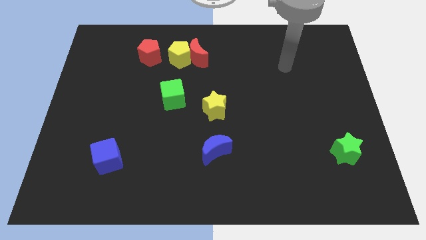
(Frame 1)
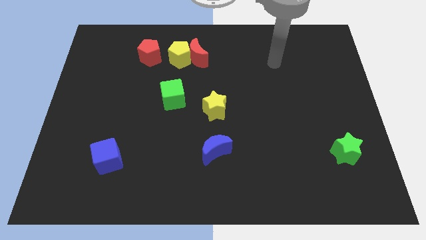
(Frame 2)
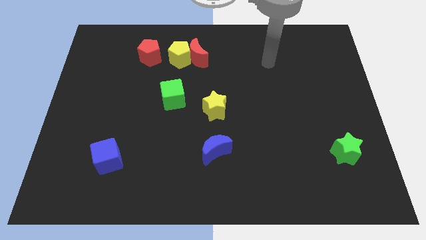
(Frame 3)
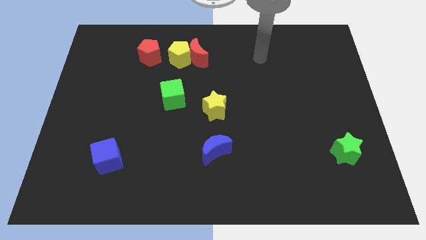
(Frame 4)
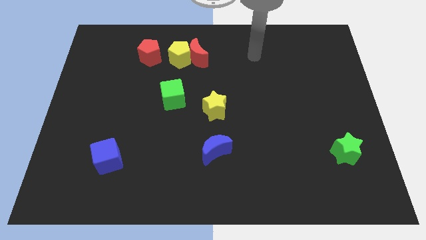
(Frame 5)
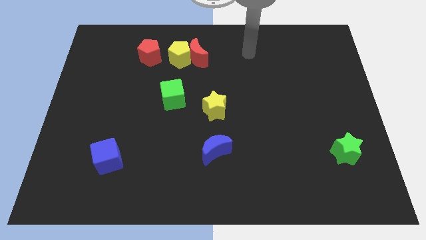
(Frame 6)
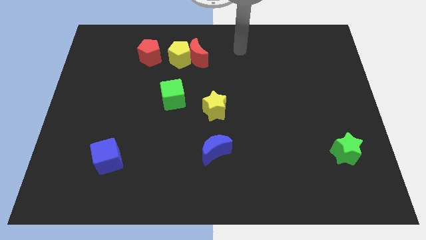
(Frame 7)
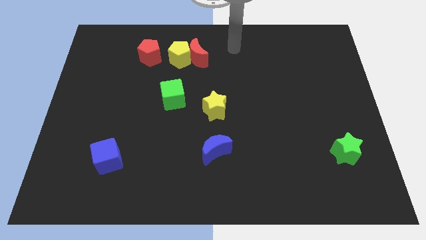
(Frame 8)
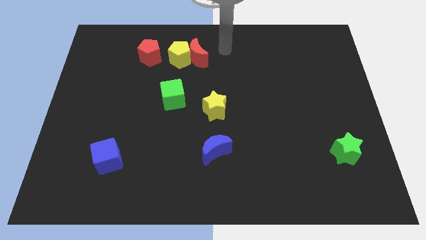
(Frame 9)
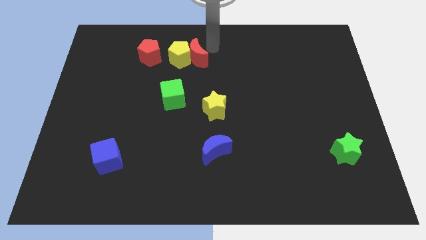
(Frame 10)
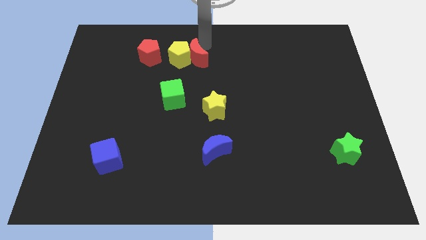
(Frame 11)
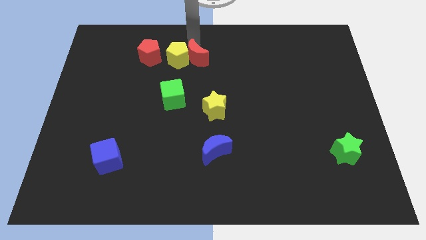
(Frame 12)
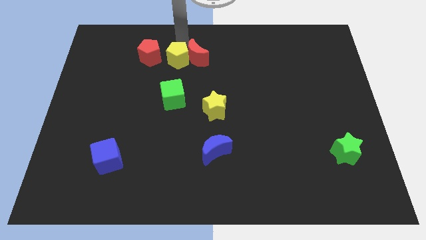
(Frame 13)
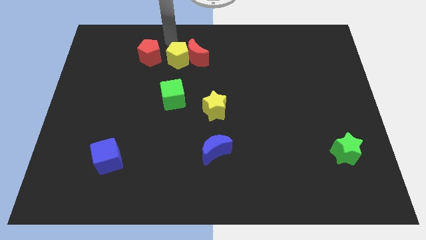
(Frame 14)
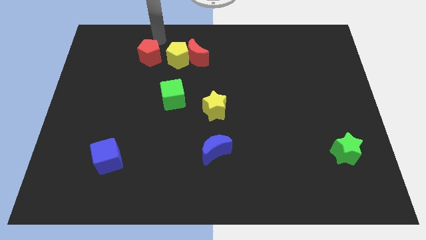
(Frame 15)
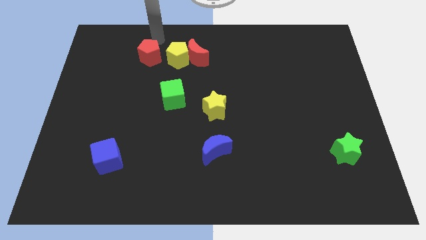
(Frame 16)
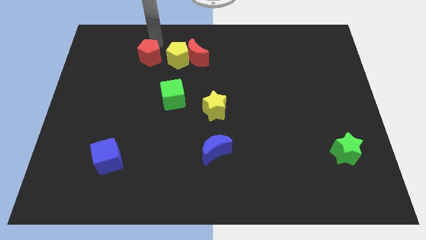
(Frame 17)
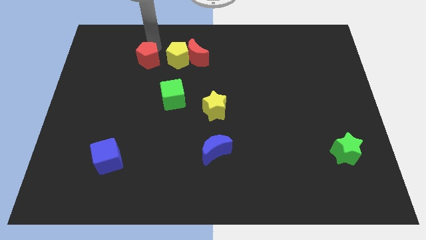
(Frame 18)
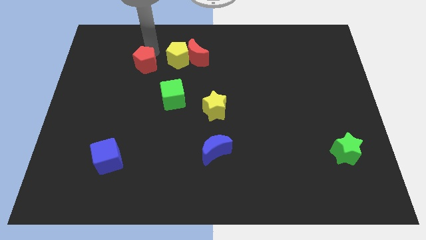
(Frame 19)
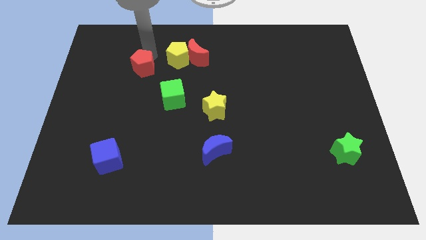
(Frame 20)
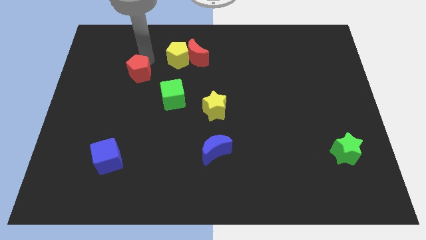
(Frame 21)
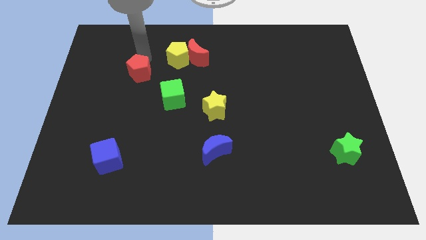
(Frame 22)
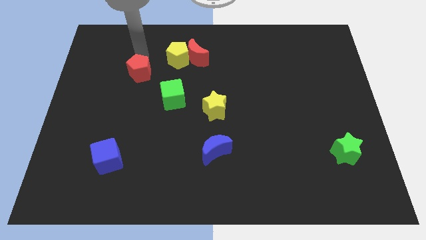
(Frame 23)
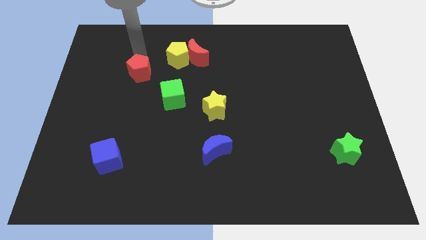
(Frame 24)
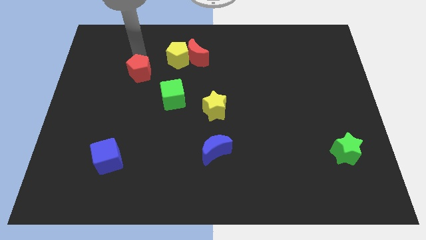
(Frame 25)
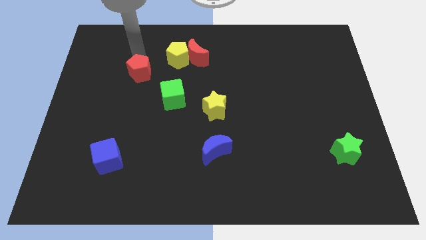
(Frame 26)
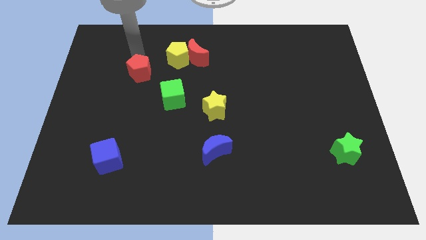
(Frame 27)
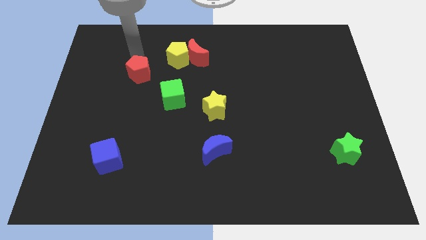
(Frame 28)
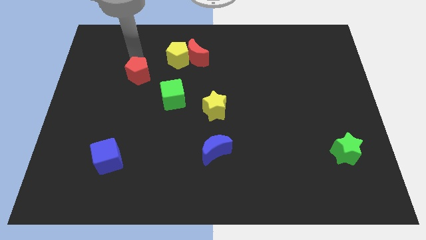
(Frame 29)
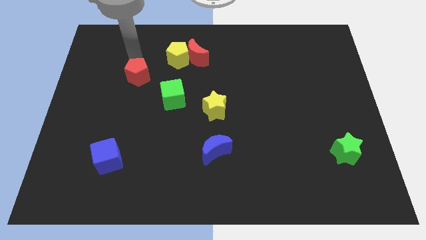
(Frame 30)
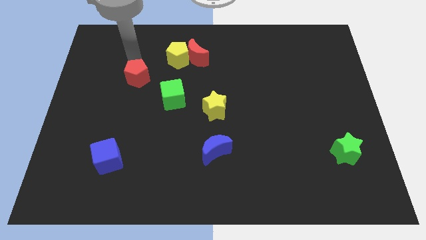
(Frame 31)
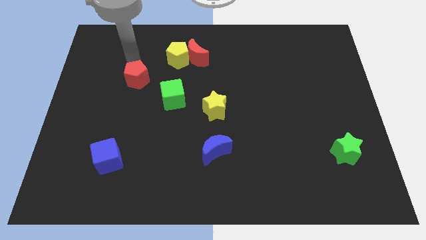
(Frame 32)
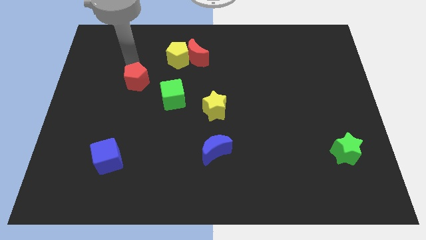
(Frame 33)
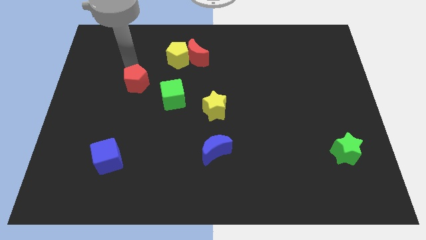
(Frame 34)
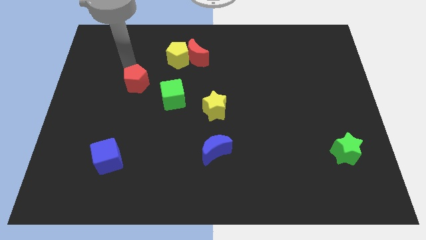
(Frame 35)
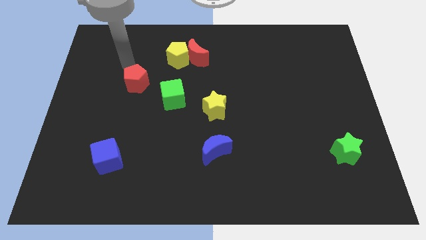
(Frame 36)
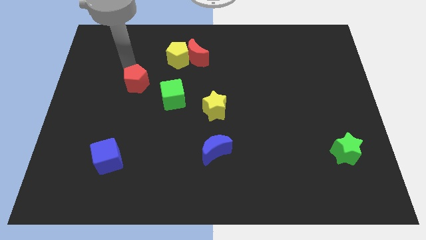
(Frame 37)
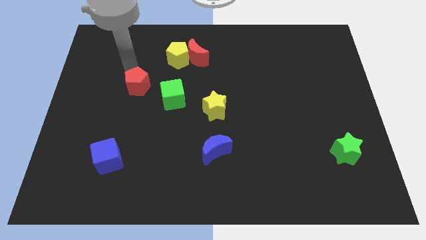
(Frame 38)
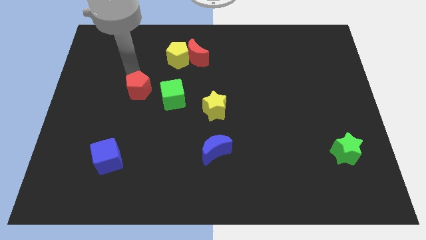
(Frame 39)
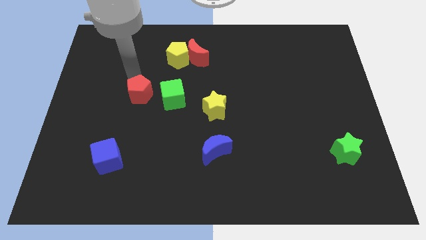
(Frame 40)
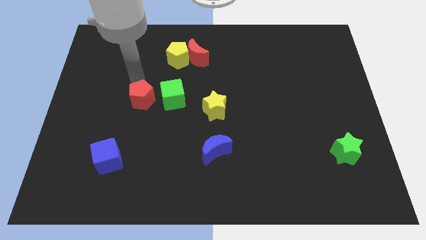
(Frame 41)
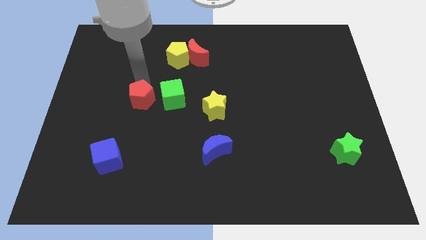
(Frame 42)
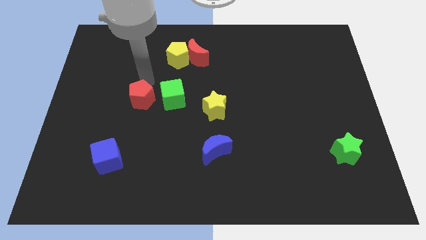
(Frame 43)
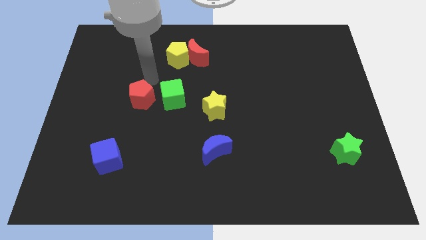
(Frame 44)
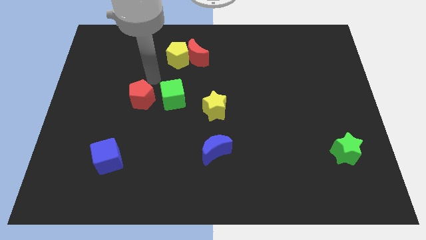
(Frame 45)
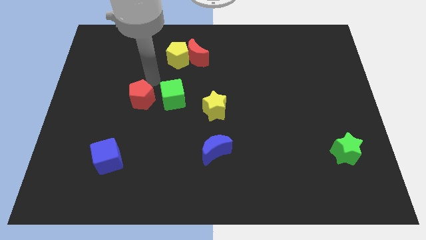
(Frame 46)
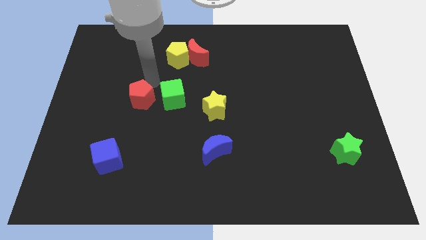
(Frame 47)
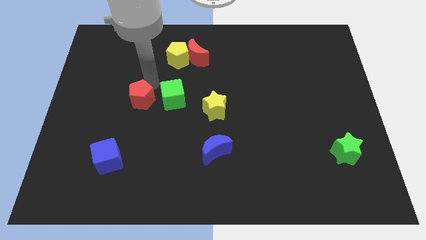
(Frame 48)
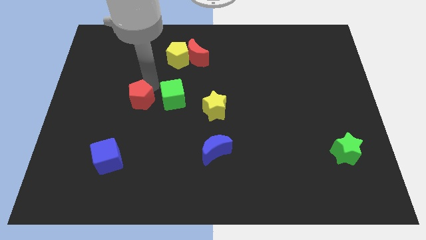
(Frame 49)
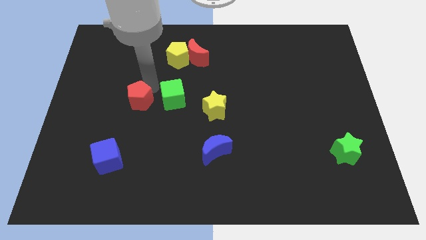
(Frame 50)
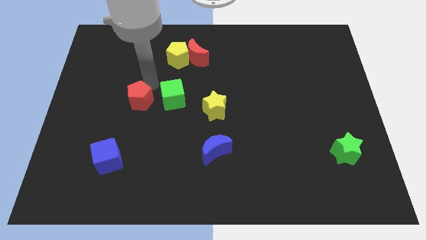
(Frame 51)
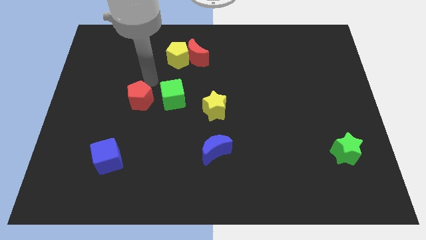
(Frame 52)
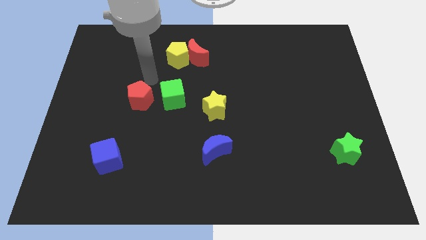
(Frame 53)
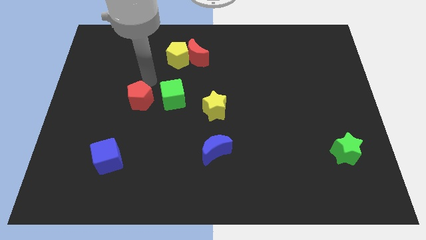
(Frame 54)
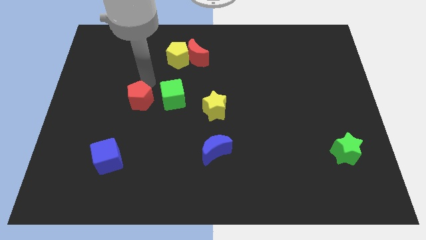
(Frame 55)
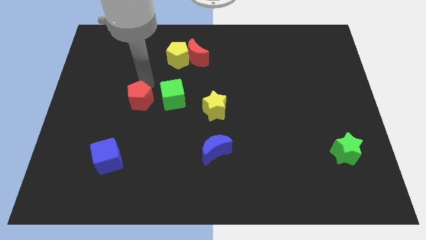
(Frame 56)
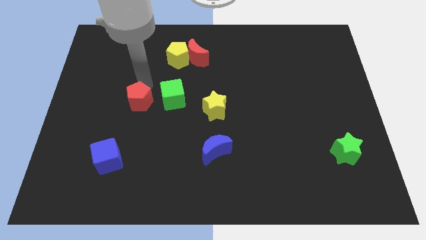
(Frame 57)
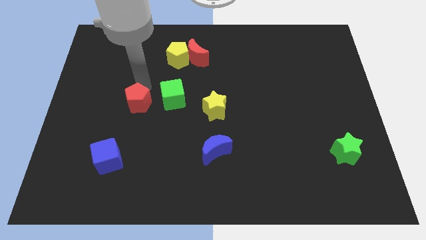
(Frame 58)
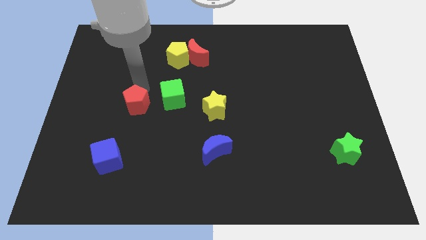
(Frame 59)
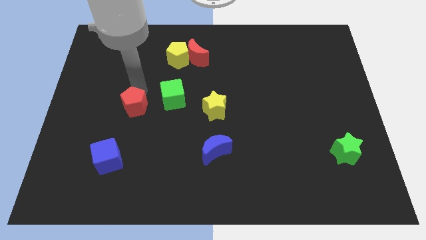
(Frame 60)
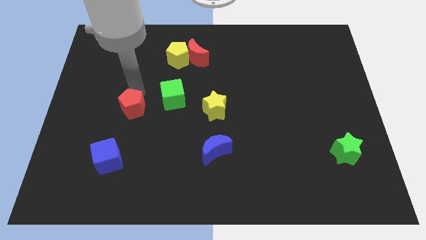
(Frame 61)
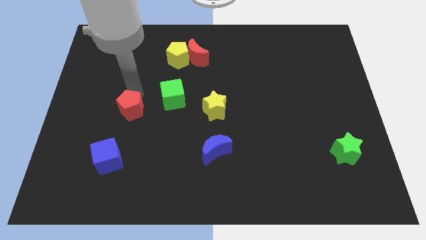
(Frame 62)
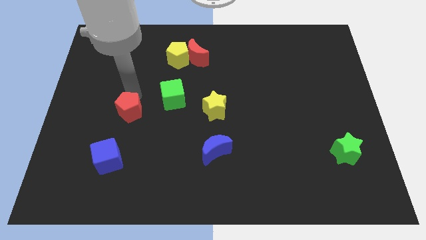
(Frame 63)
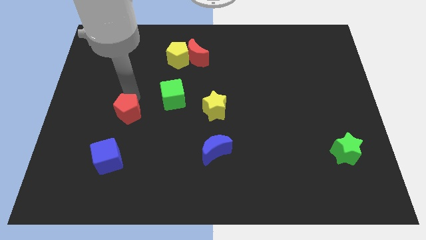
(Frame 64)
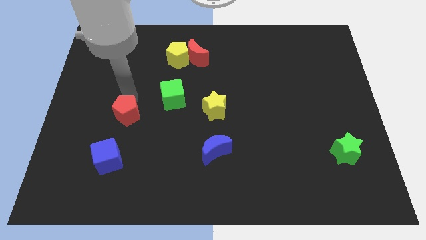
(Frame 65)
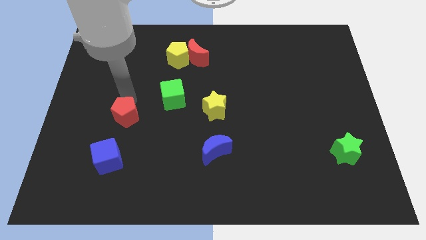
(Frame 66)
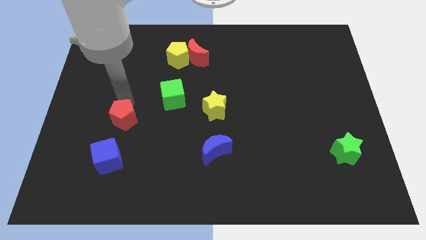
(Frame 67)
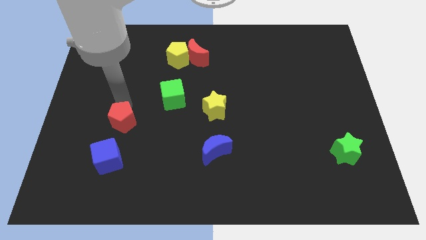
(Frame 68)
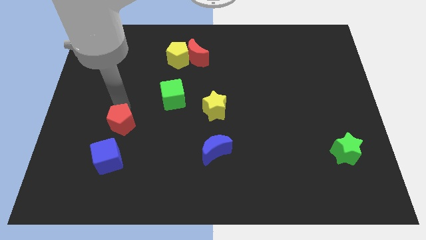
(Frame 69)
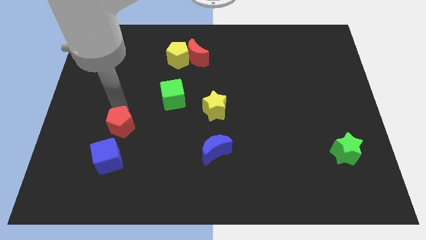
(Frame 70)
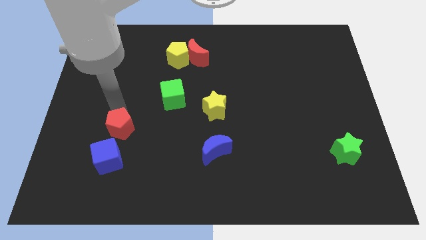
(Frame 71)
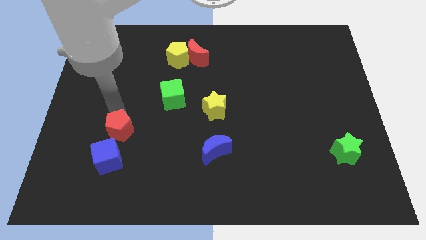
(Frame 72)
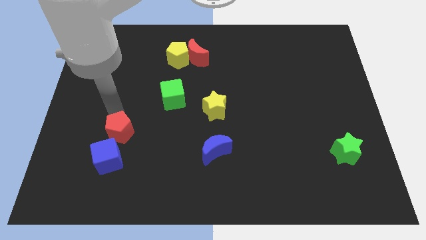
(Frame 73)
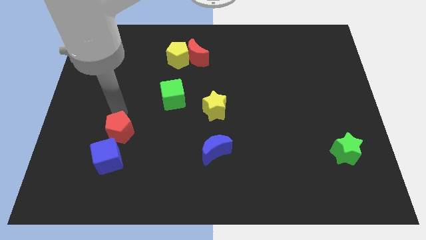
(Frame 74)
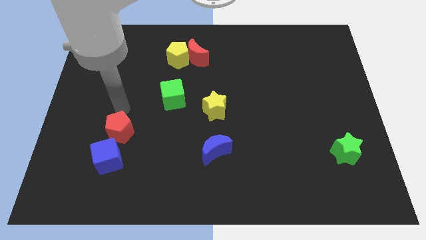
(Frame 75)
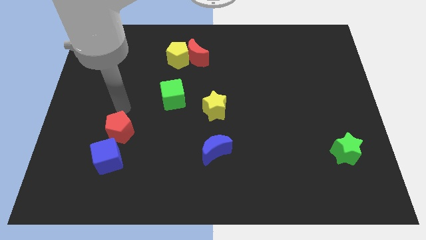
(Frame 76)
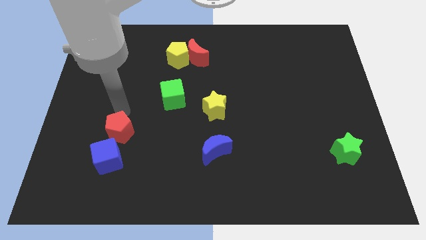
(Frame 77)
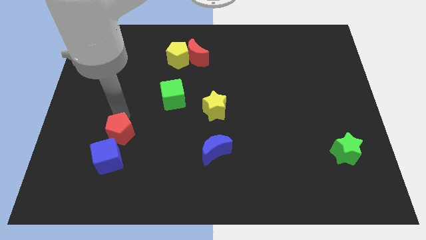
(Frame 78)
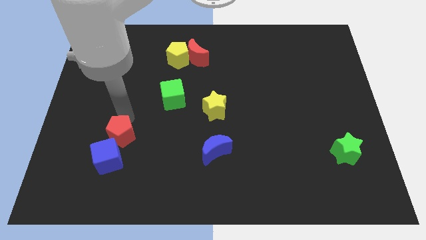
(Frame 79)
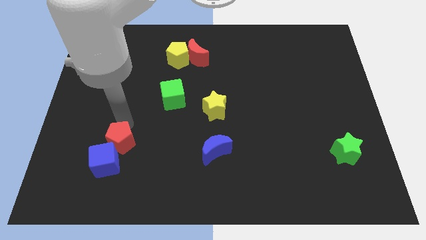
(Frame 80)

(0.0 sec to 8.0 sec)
put the red pentagon towards the blue cube
